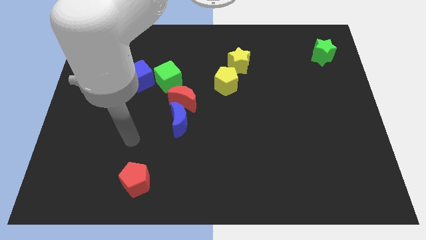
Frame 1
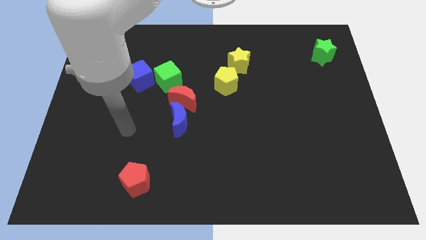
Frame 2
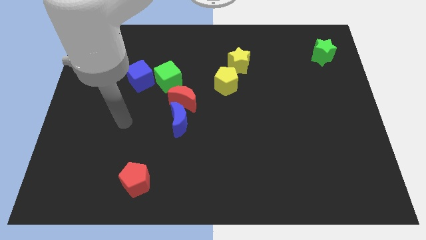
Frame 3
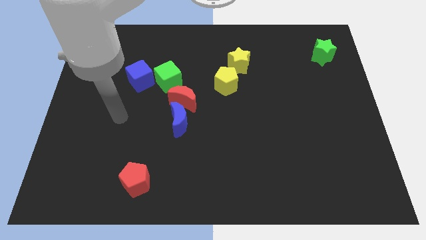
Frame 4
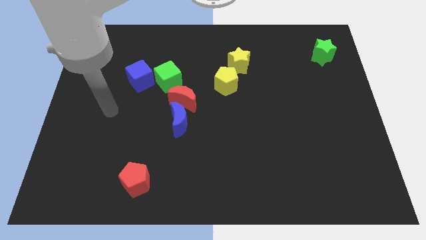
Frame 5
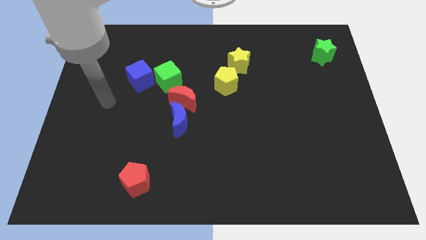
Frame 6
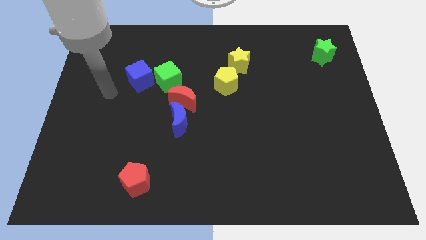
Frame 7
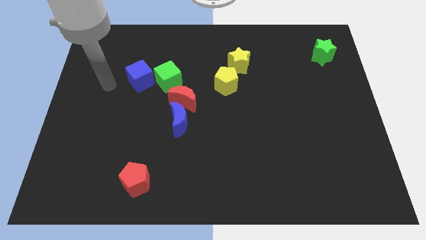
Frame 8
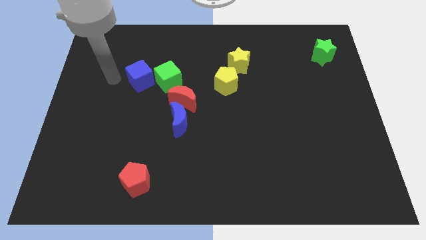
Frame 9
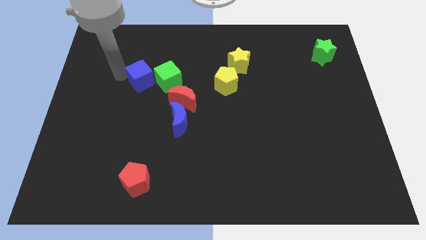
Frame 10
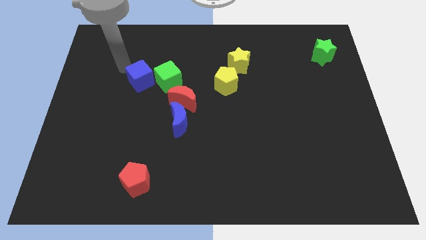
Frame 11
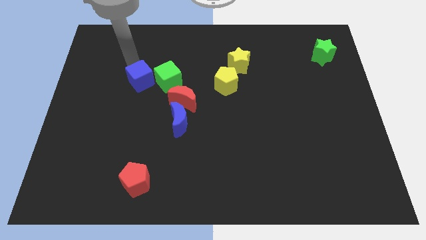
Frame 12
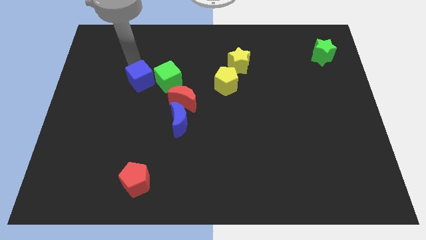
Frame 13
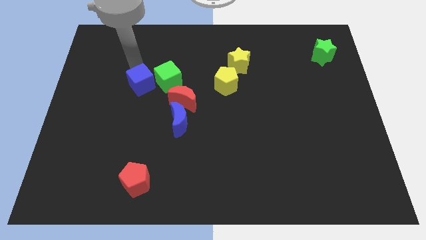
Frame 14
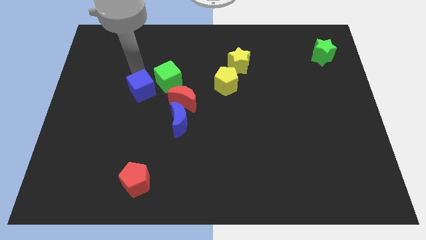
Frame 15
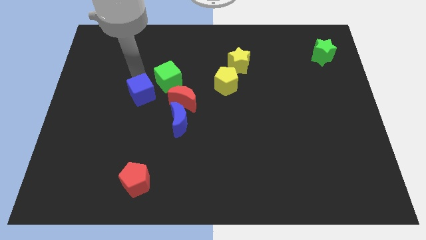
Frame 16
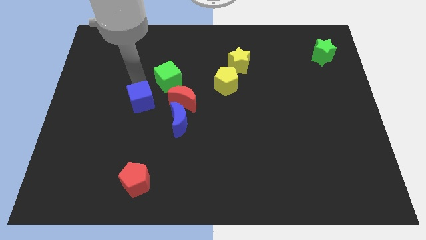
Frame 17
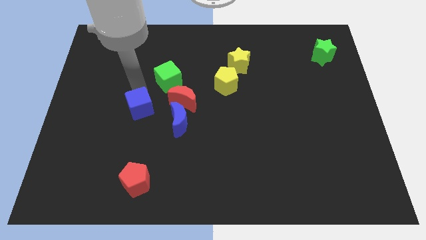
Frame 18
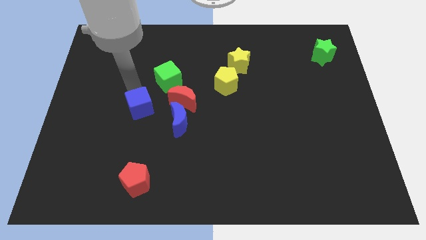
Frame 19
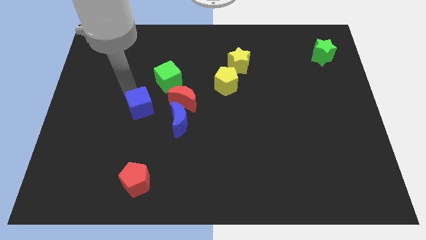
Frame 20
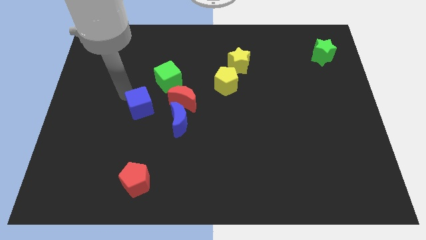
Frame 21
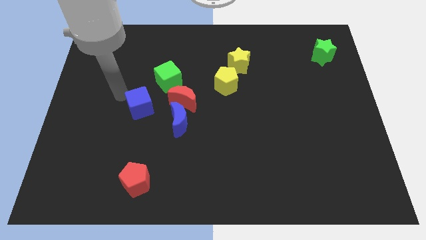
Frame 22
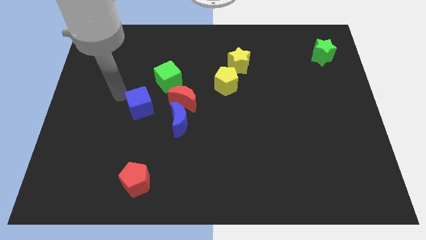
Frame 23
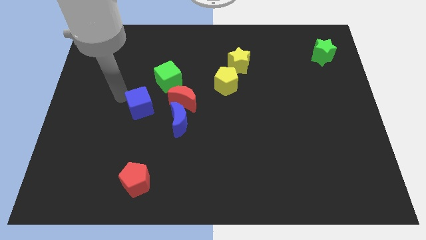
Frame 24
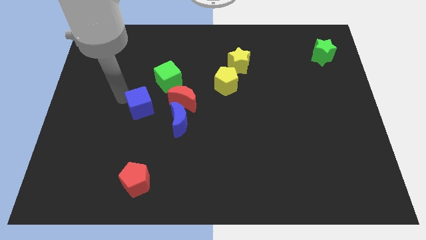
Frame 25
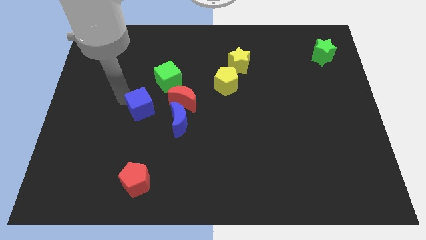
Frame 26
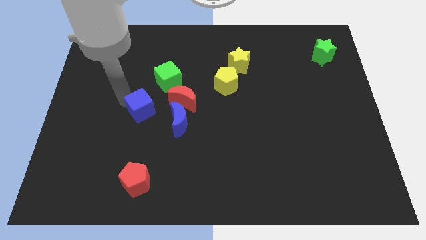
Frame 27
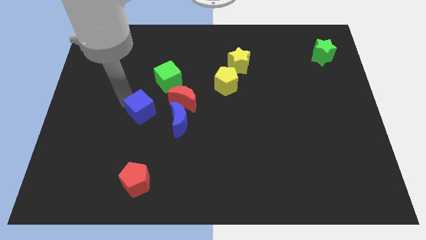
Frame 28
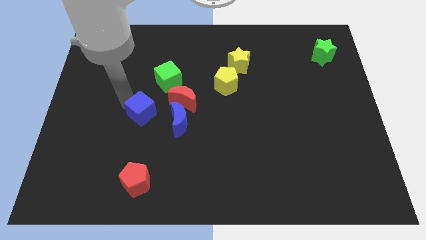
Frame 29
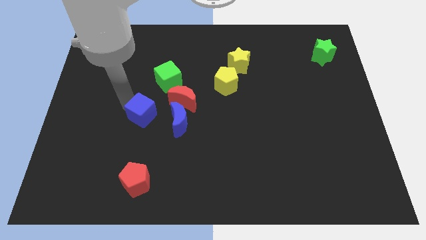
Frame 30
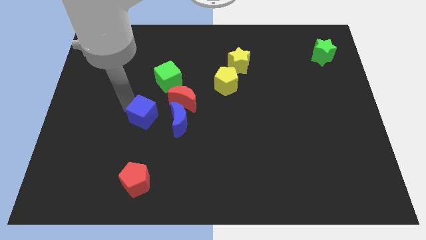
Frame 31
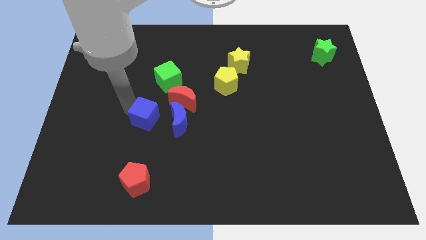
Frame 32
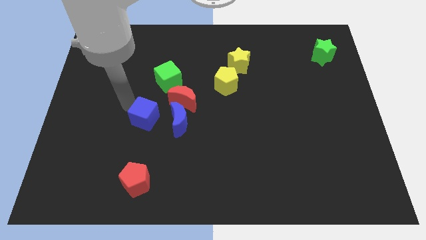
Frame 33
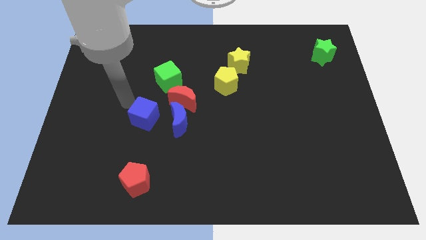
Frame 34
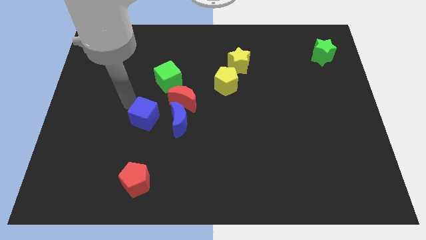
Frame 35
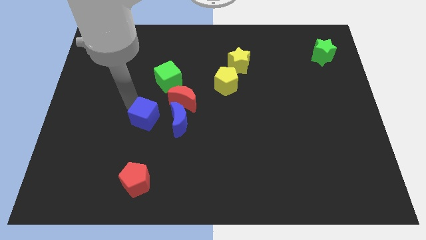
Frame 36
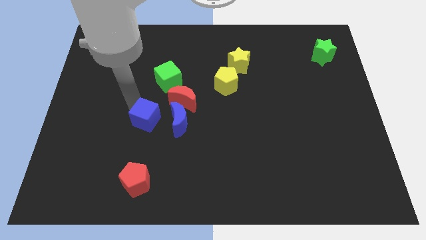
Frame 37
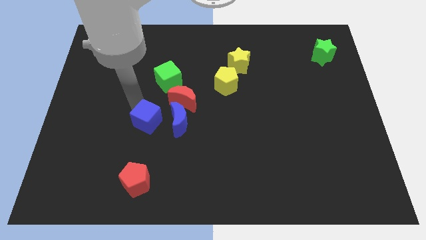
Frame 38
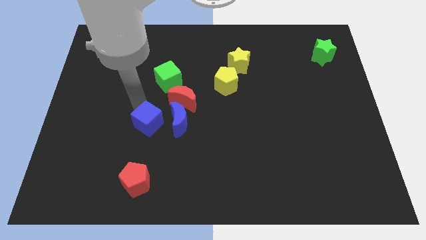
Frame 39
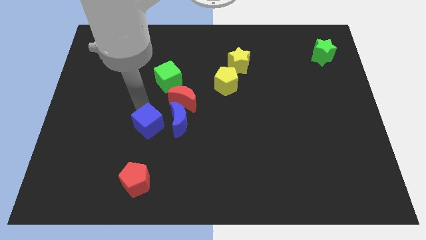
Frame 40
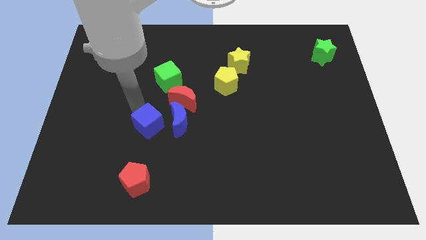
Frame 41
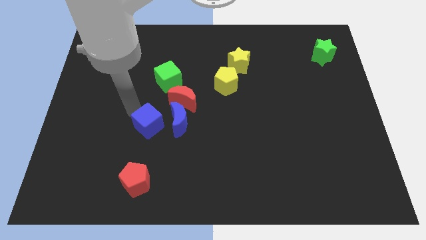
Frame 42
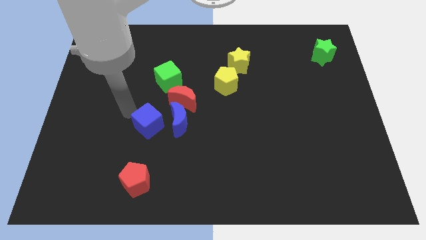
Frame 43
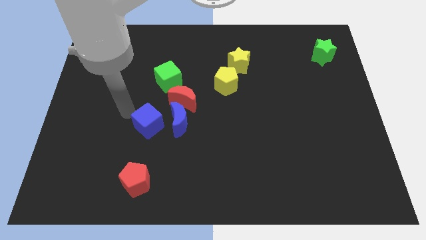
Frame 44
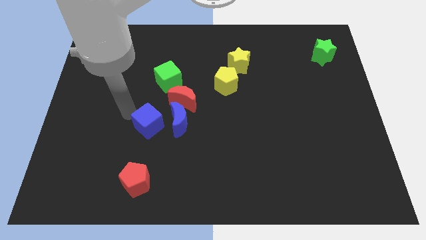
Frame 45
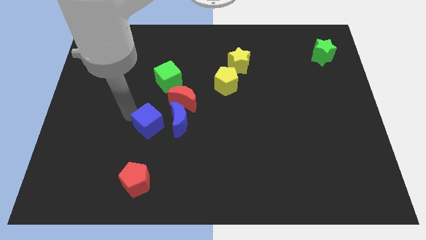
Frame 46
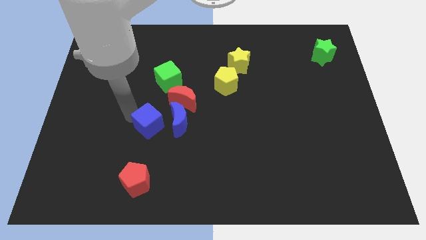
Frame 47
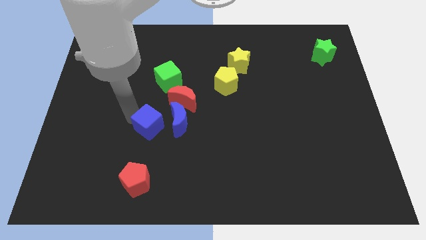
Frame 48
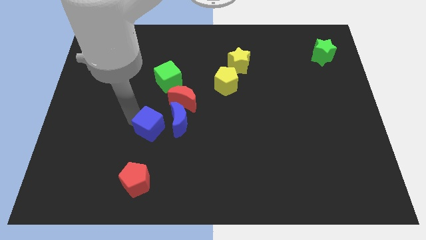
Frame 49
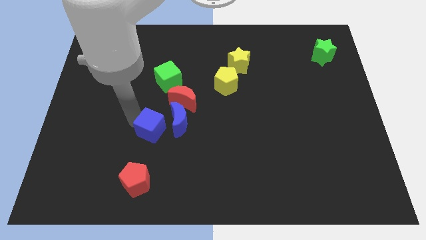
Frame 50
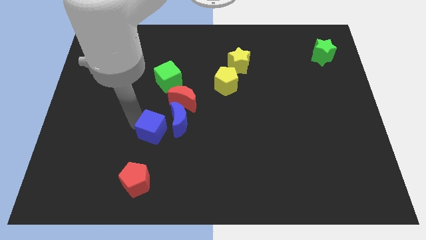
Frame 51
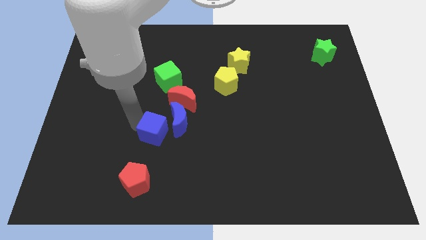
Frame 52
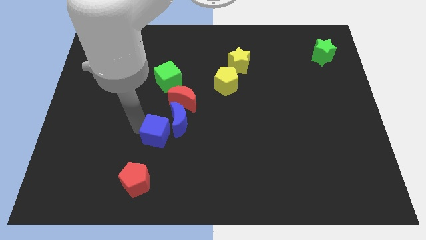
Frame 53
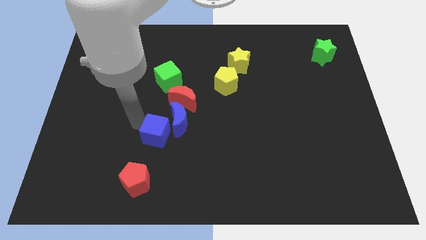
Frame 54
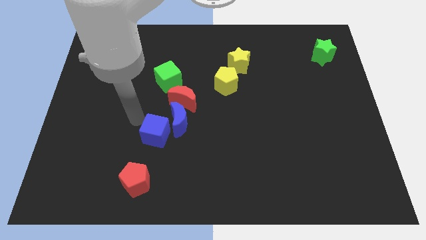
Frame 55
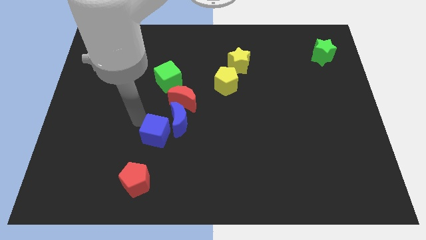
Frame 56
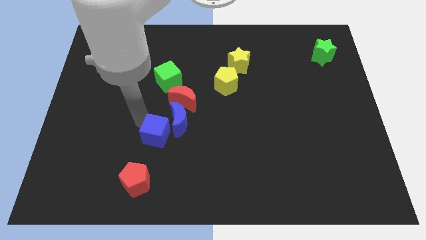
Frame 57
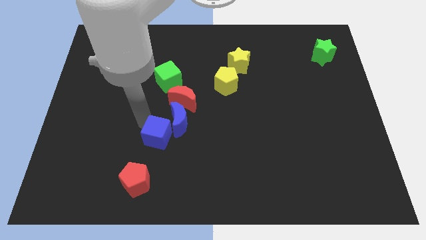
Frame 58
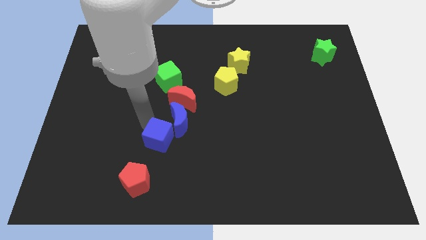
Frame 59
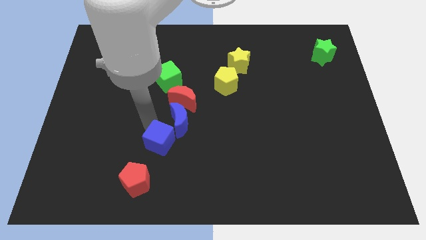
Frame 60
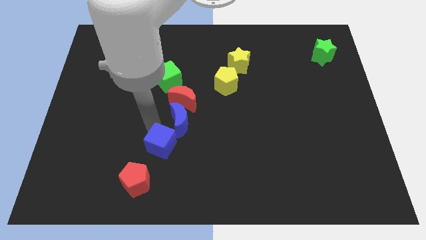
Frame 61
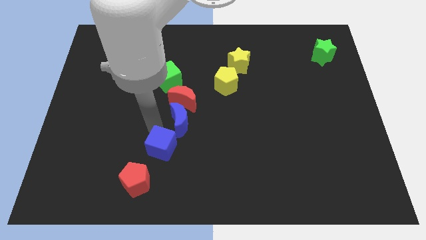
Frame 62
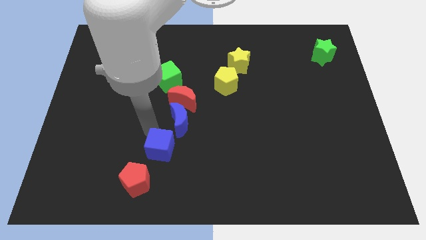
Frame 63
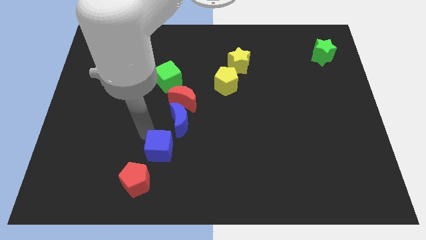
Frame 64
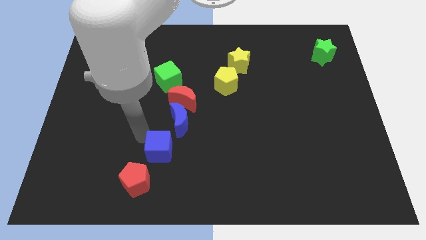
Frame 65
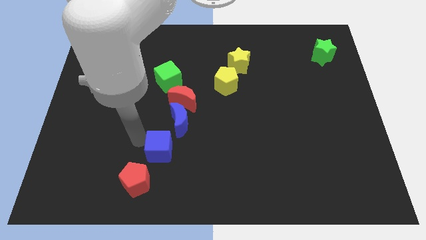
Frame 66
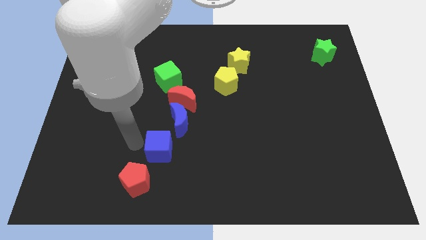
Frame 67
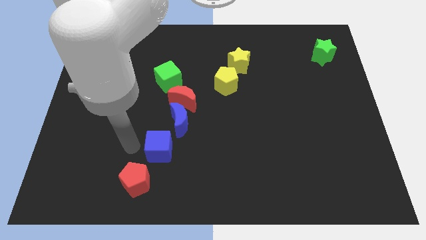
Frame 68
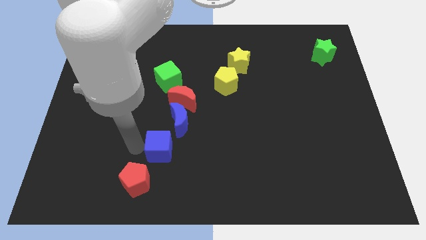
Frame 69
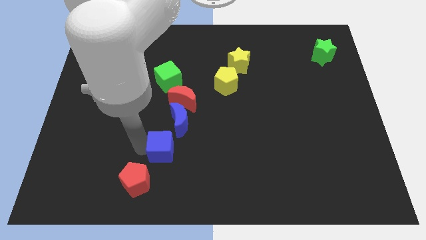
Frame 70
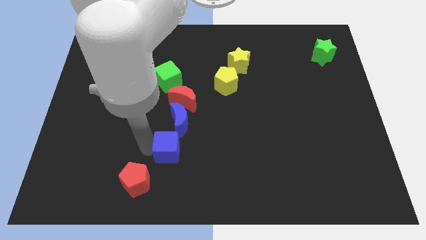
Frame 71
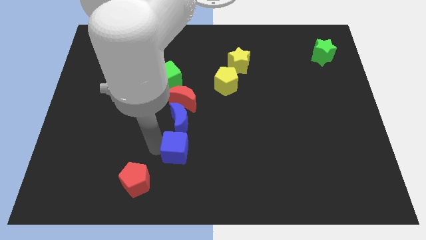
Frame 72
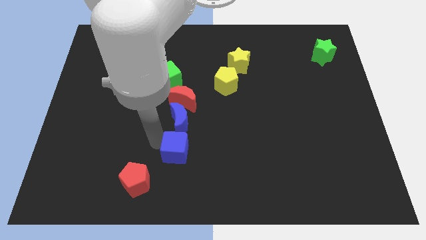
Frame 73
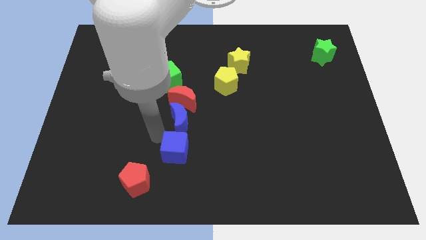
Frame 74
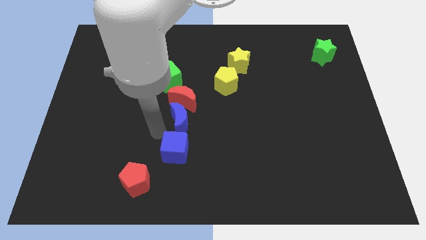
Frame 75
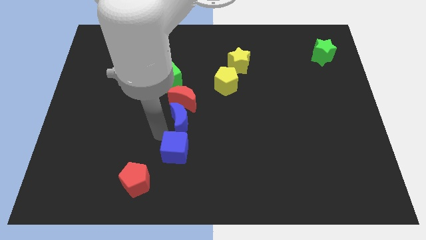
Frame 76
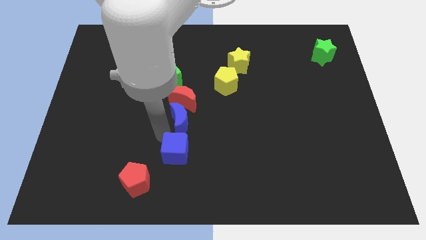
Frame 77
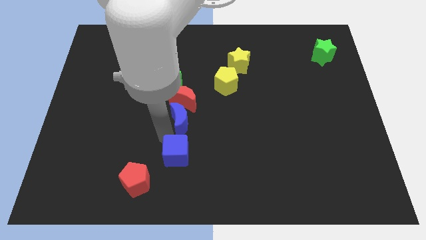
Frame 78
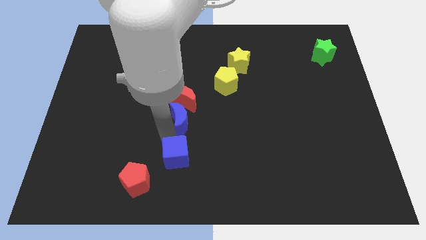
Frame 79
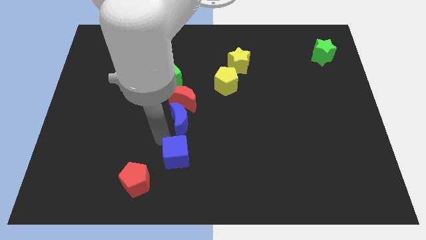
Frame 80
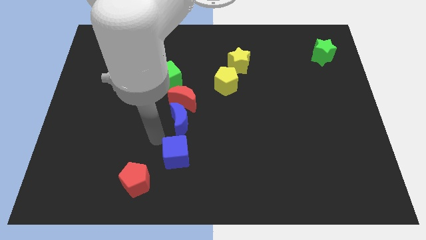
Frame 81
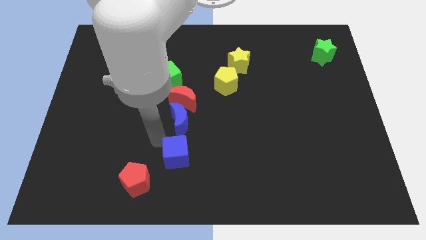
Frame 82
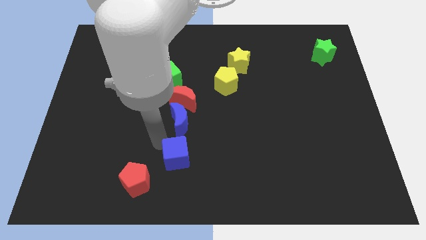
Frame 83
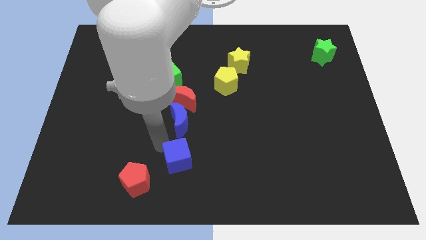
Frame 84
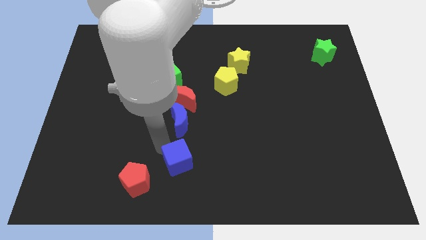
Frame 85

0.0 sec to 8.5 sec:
push the blue cube to the bottom
